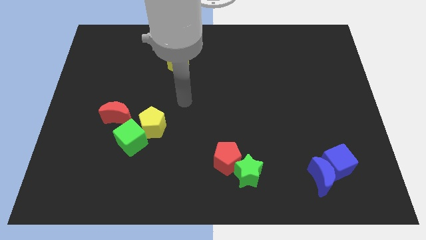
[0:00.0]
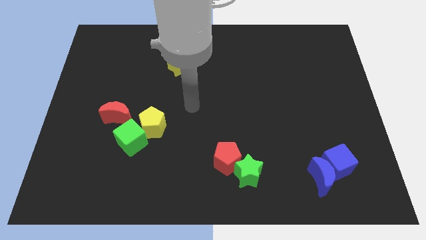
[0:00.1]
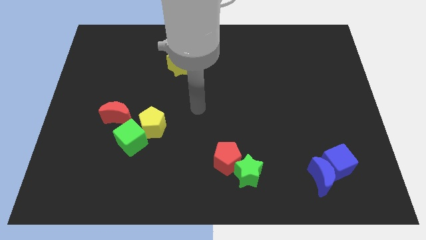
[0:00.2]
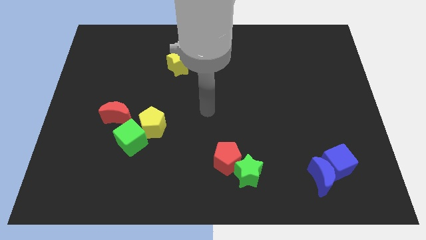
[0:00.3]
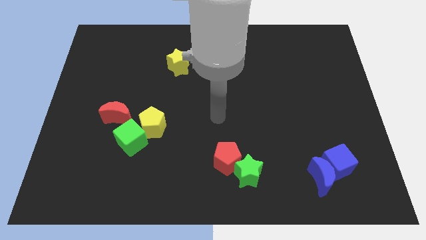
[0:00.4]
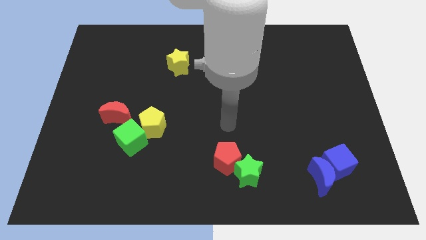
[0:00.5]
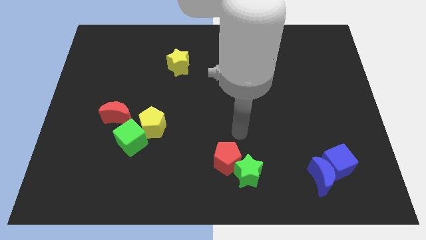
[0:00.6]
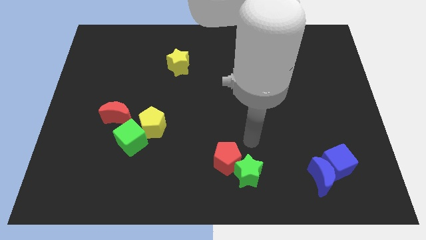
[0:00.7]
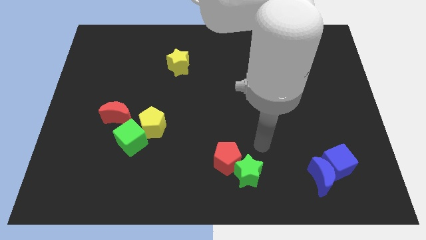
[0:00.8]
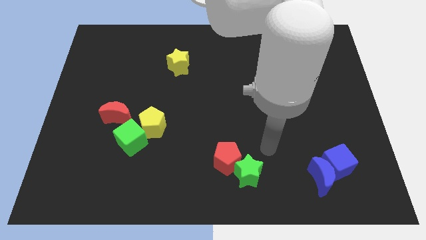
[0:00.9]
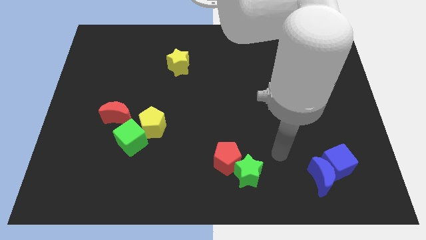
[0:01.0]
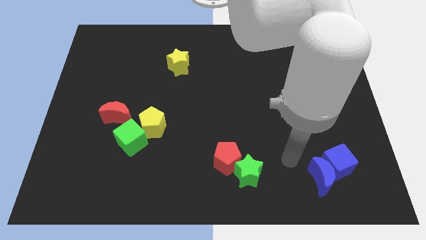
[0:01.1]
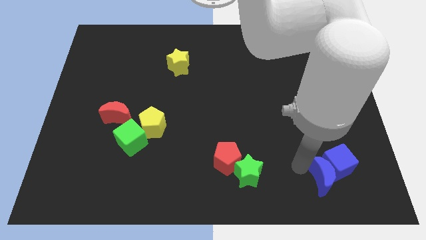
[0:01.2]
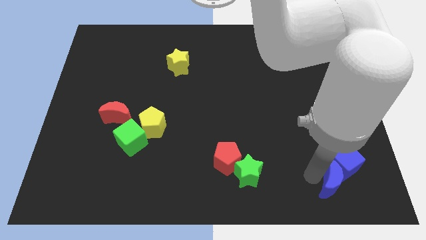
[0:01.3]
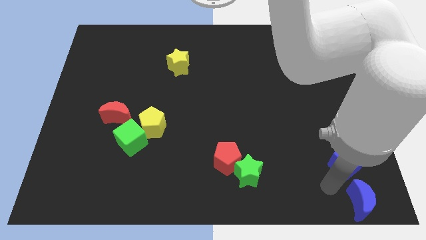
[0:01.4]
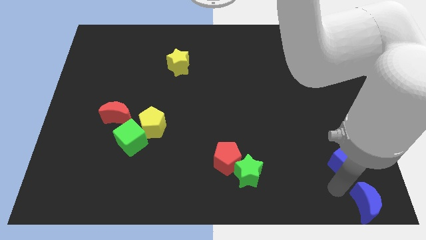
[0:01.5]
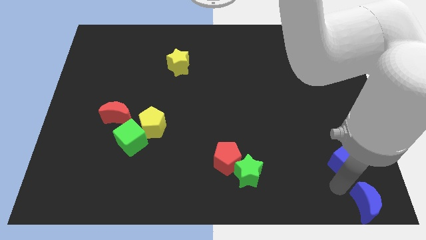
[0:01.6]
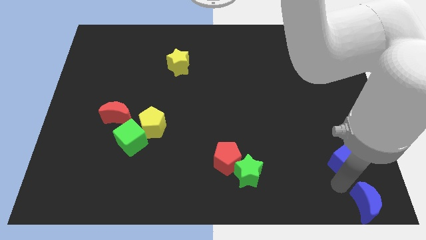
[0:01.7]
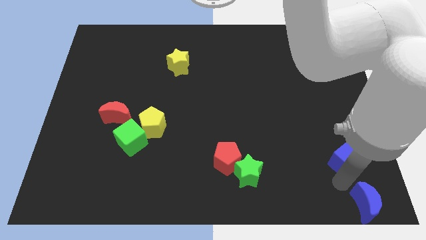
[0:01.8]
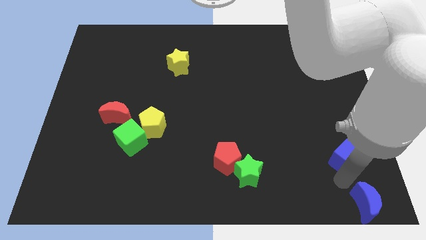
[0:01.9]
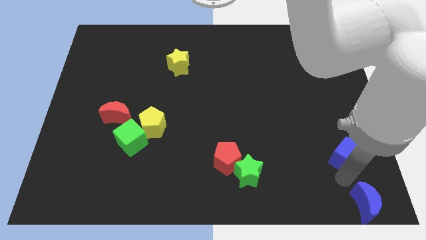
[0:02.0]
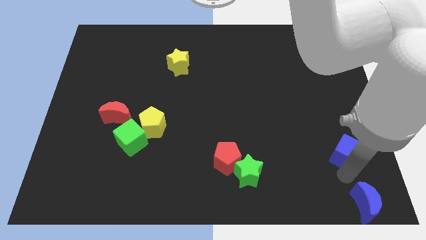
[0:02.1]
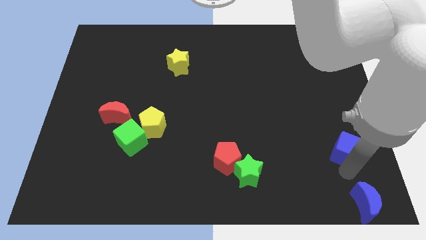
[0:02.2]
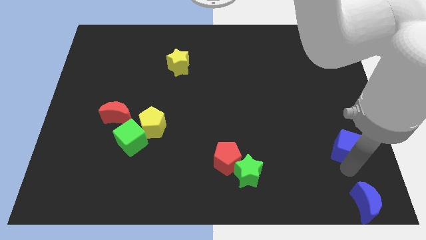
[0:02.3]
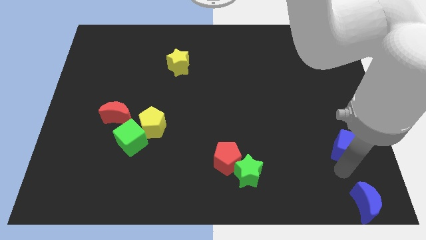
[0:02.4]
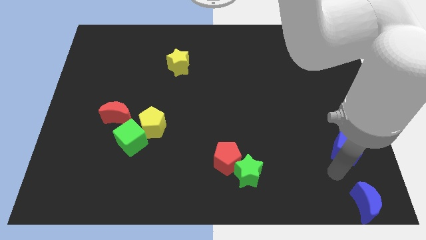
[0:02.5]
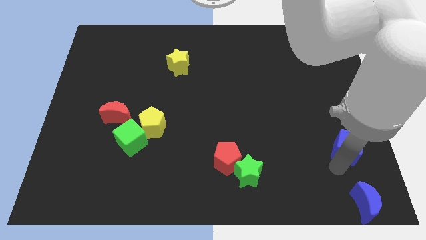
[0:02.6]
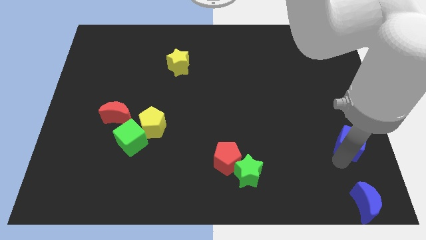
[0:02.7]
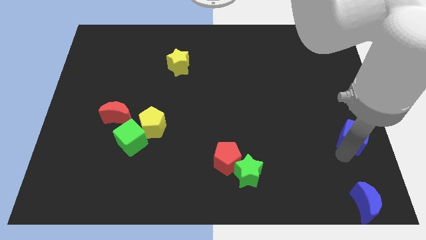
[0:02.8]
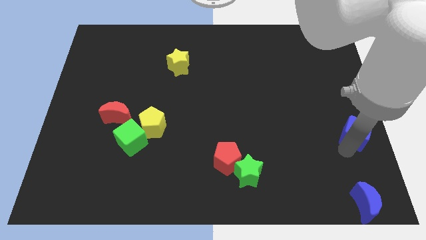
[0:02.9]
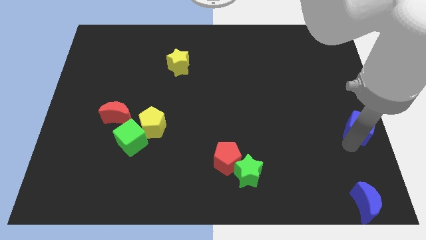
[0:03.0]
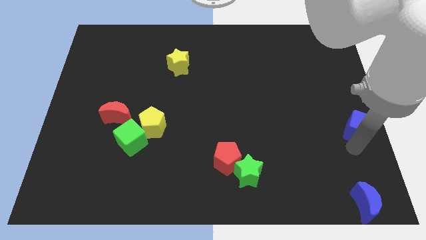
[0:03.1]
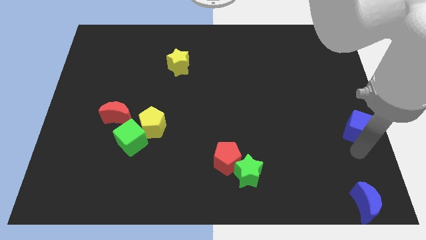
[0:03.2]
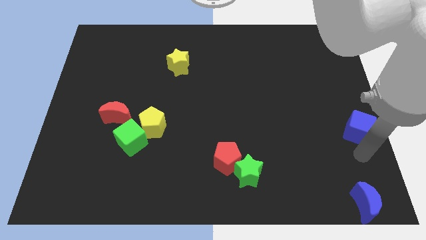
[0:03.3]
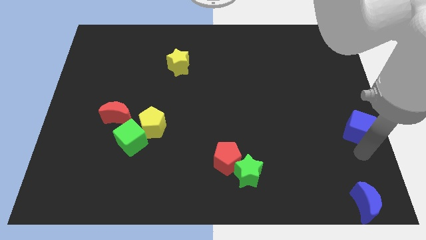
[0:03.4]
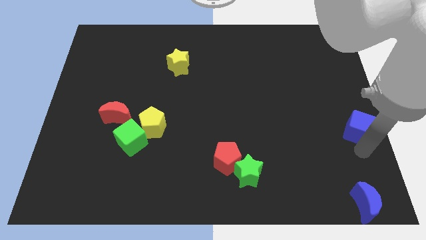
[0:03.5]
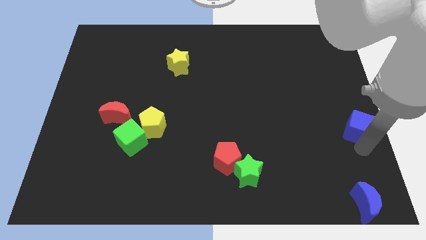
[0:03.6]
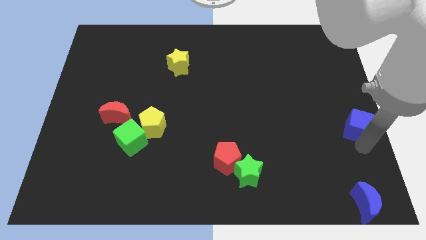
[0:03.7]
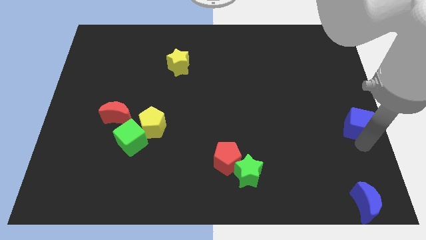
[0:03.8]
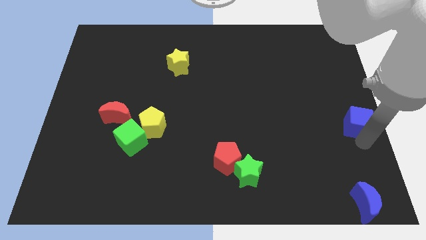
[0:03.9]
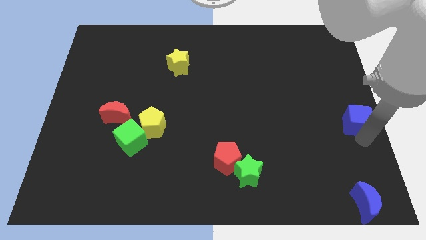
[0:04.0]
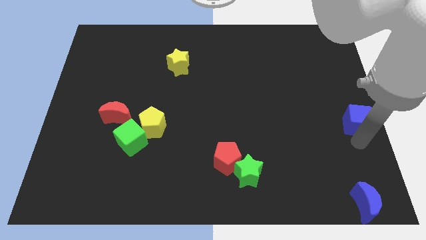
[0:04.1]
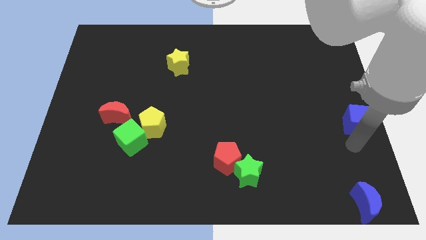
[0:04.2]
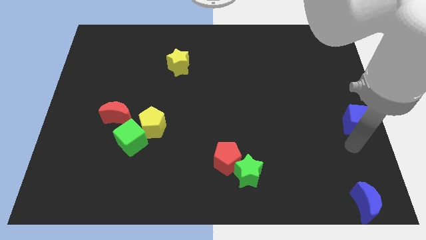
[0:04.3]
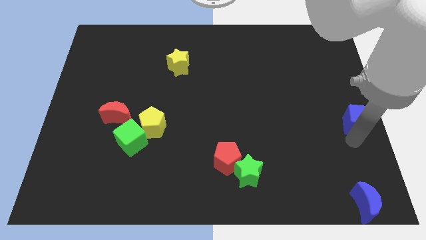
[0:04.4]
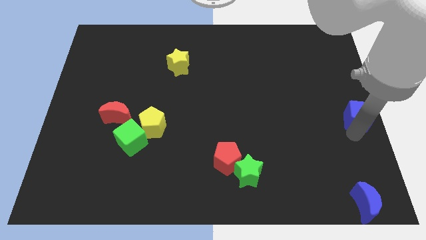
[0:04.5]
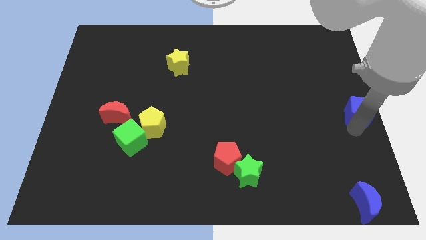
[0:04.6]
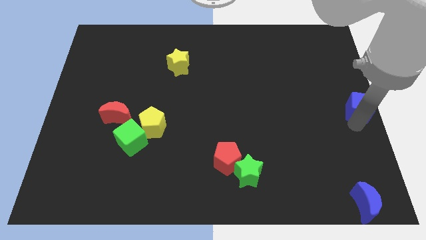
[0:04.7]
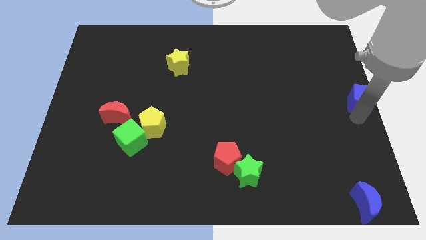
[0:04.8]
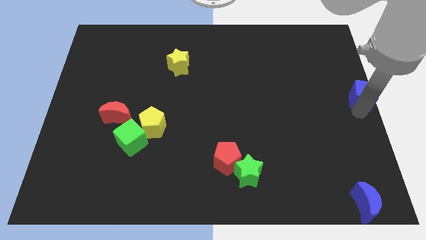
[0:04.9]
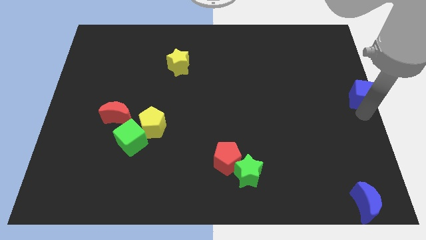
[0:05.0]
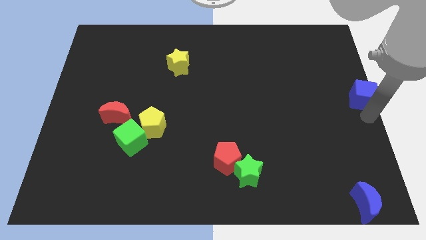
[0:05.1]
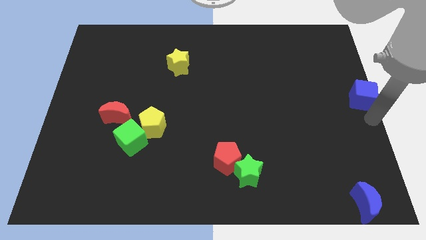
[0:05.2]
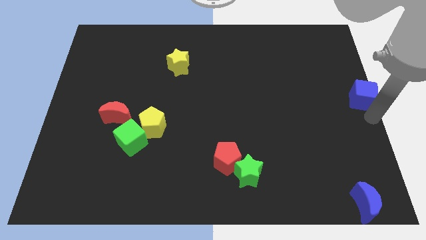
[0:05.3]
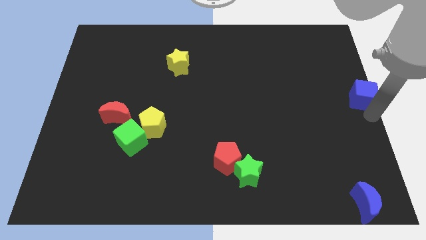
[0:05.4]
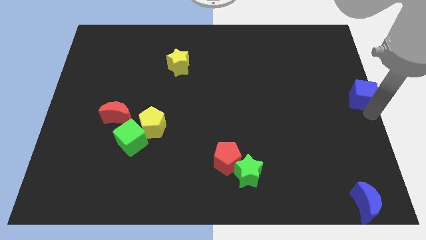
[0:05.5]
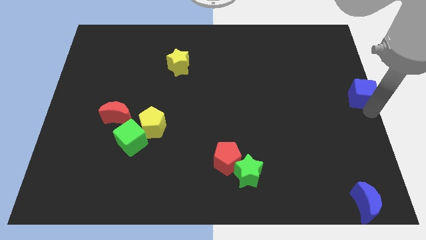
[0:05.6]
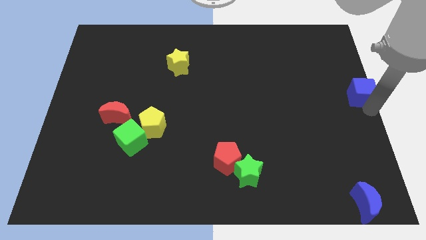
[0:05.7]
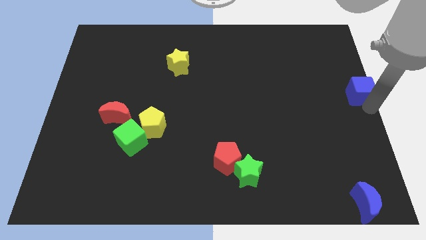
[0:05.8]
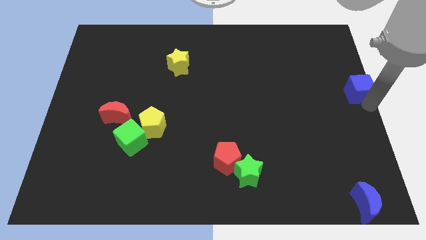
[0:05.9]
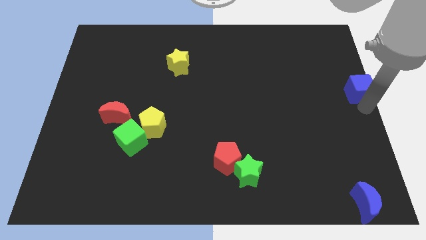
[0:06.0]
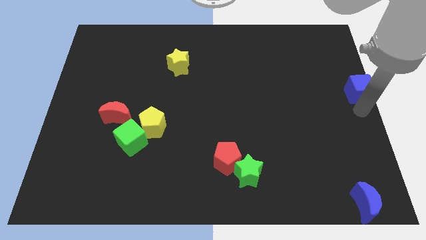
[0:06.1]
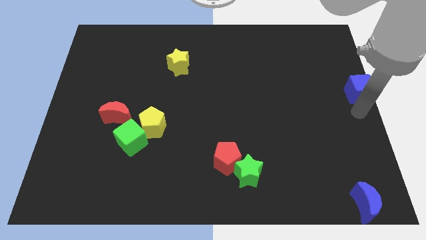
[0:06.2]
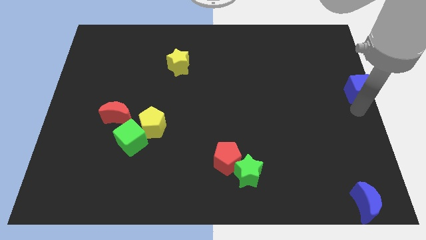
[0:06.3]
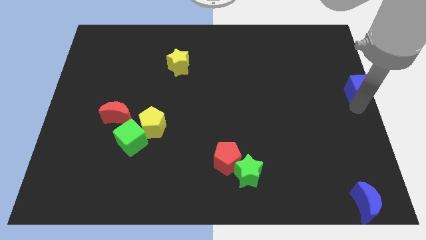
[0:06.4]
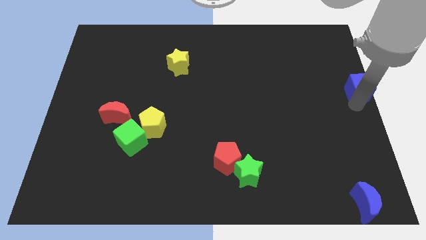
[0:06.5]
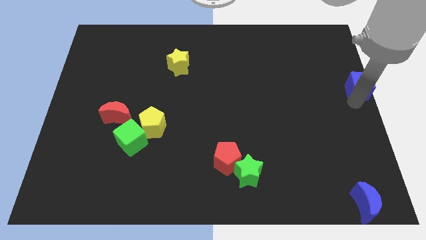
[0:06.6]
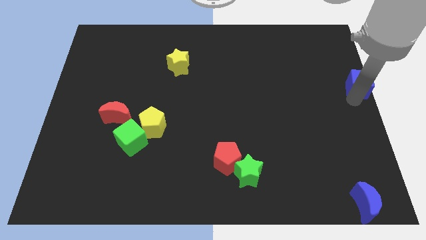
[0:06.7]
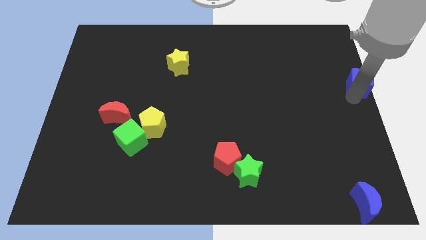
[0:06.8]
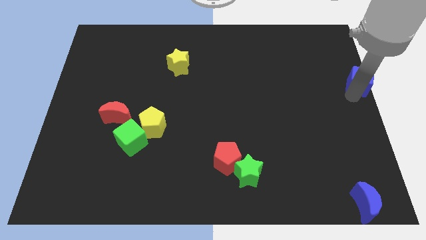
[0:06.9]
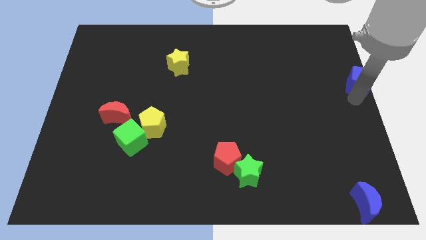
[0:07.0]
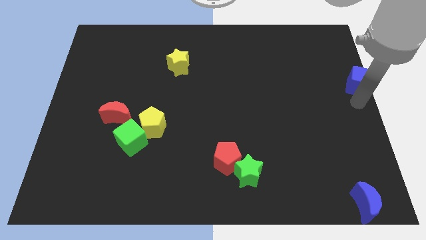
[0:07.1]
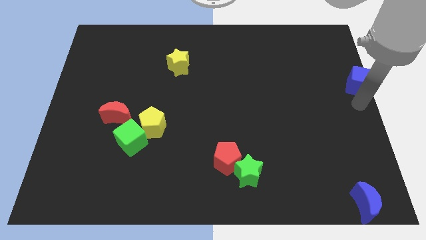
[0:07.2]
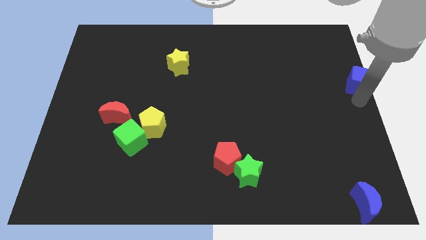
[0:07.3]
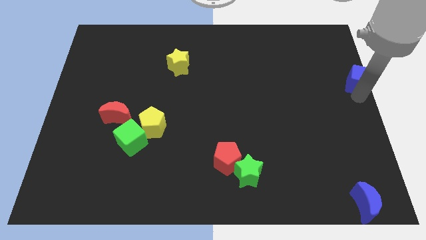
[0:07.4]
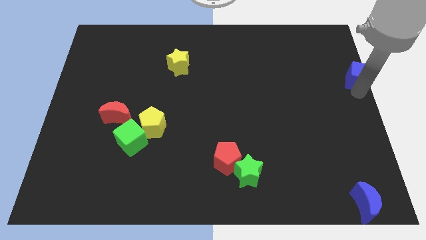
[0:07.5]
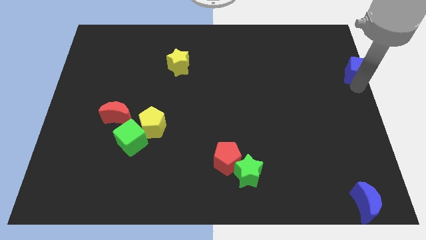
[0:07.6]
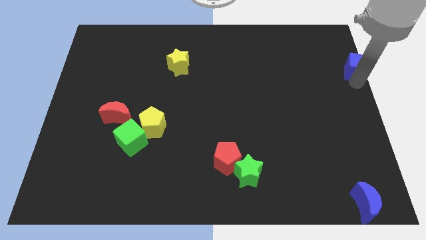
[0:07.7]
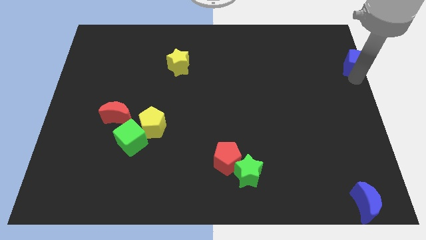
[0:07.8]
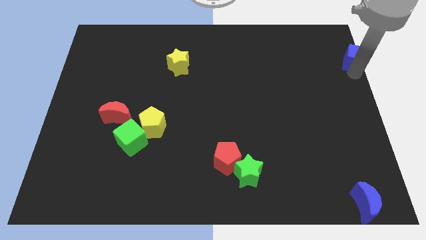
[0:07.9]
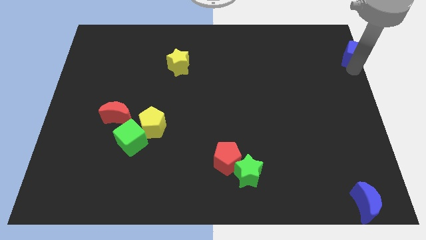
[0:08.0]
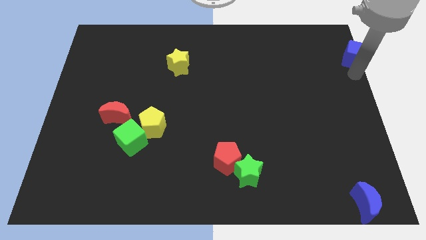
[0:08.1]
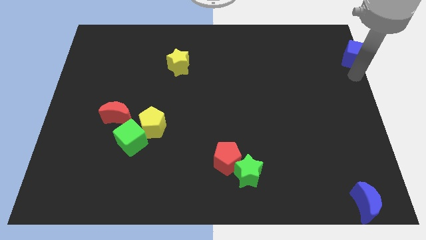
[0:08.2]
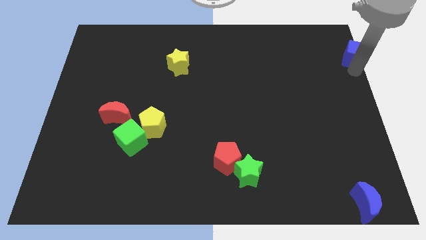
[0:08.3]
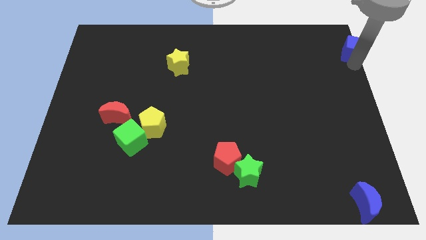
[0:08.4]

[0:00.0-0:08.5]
put the blue cube to the top right corner
